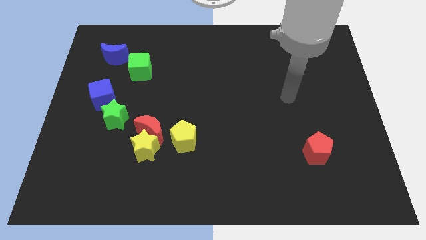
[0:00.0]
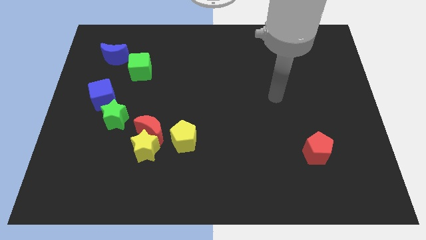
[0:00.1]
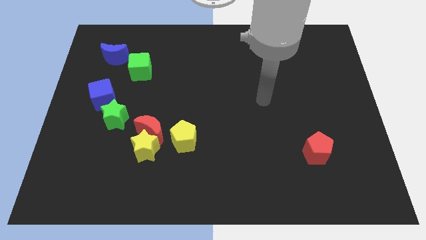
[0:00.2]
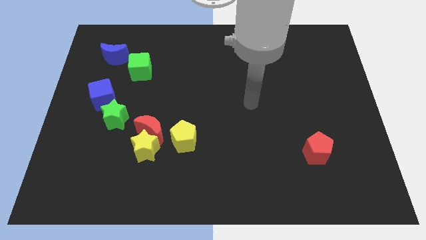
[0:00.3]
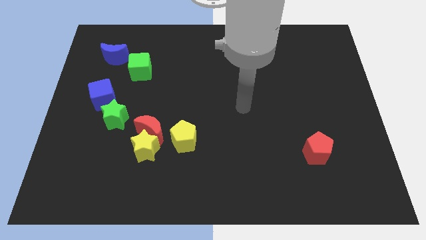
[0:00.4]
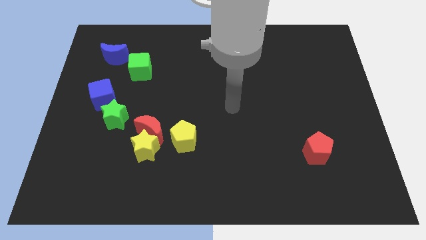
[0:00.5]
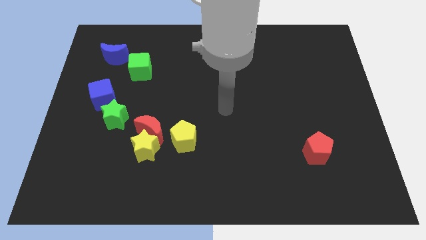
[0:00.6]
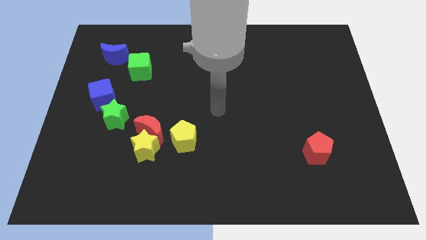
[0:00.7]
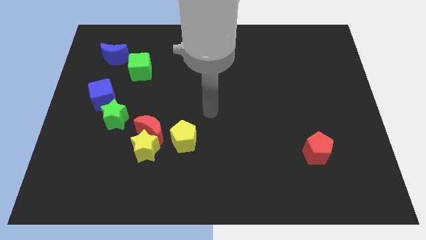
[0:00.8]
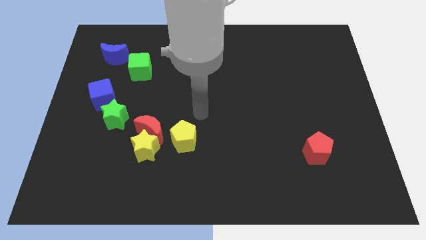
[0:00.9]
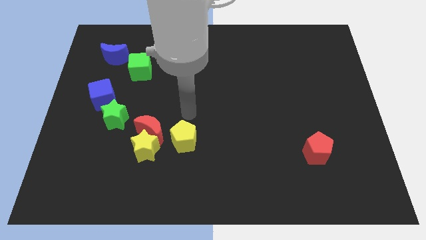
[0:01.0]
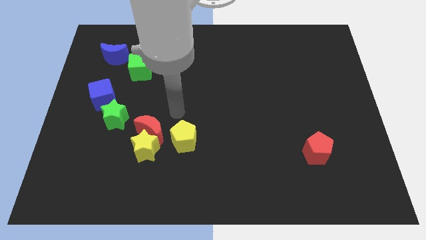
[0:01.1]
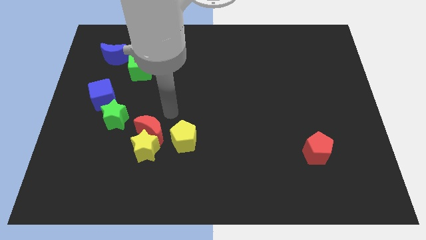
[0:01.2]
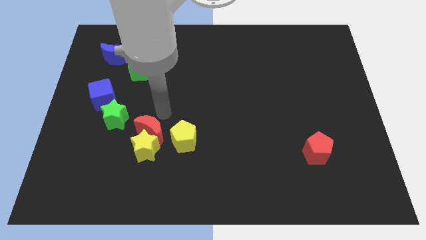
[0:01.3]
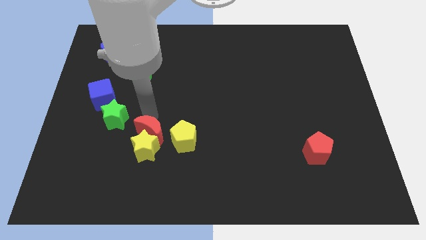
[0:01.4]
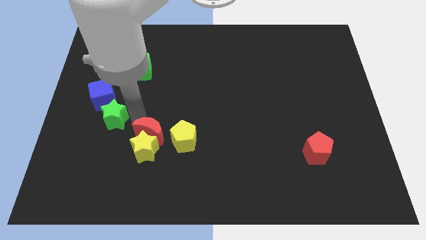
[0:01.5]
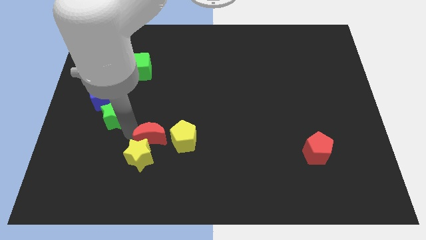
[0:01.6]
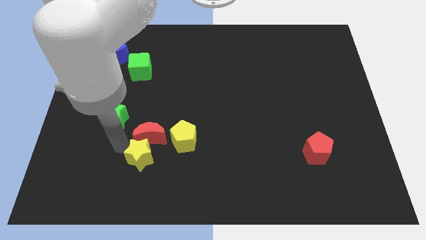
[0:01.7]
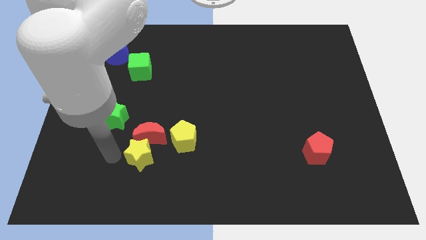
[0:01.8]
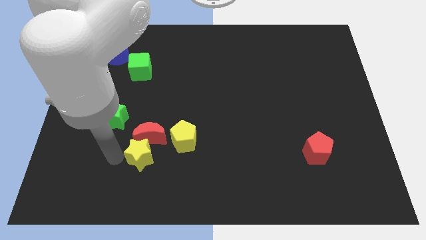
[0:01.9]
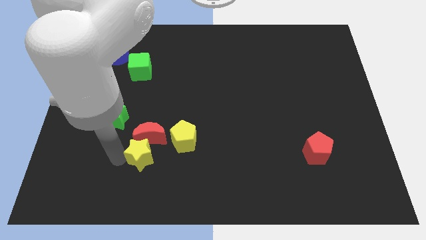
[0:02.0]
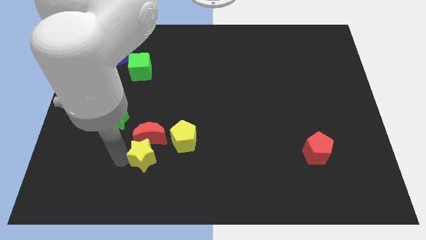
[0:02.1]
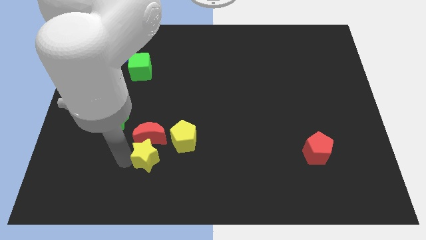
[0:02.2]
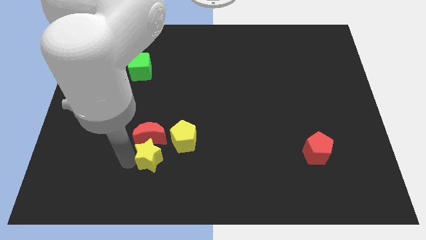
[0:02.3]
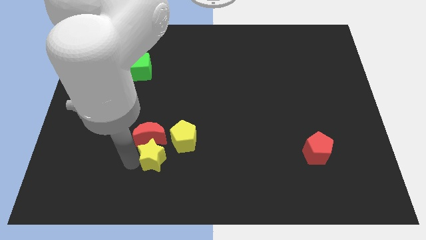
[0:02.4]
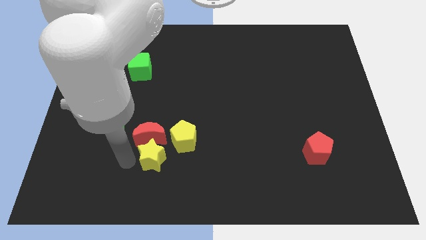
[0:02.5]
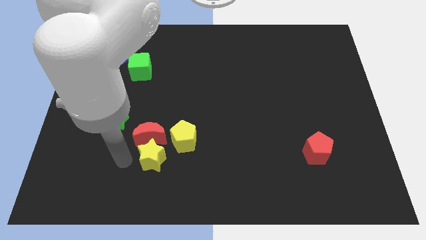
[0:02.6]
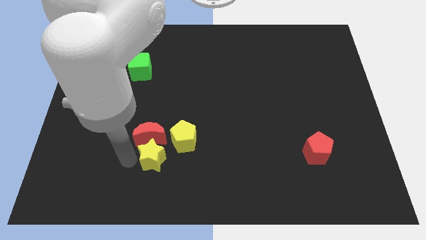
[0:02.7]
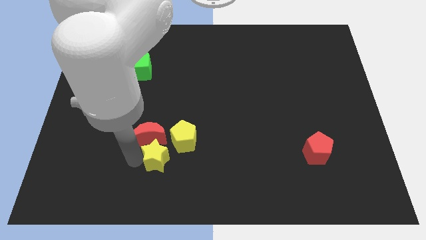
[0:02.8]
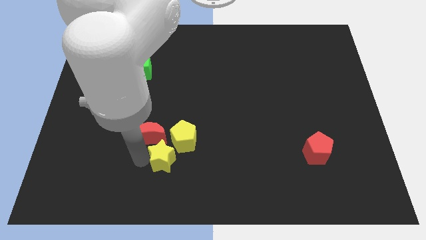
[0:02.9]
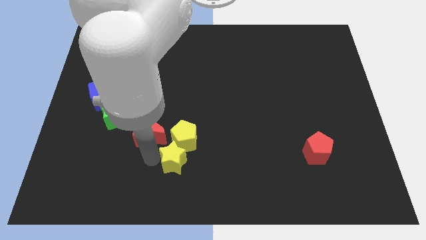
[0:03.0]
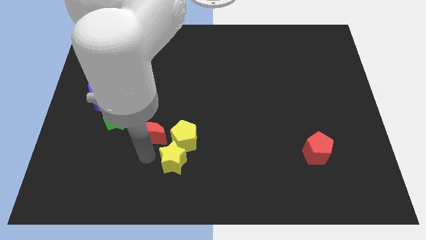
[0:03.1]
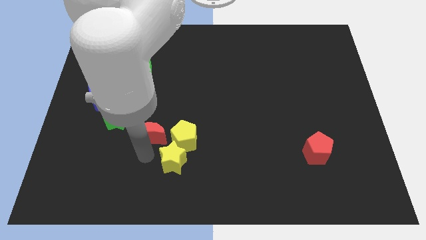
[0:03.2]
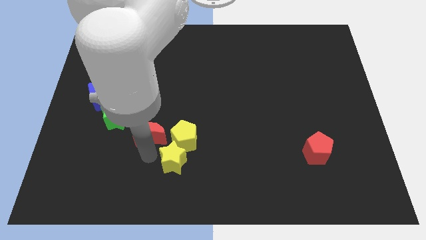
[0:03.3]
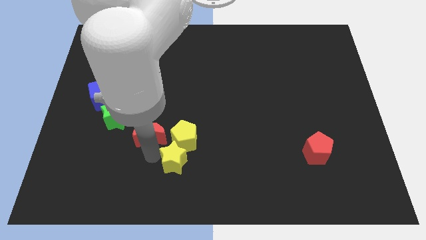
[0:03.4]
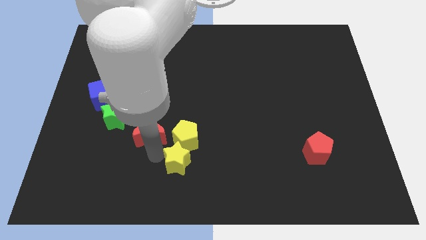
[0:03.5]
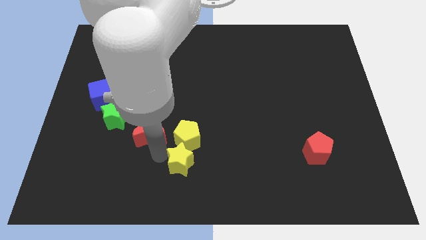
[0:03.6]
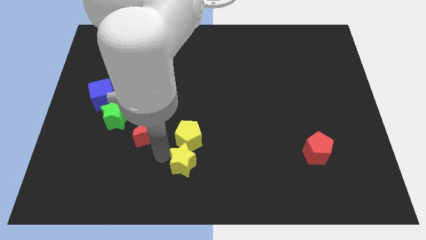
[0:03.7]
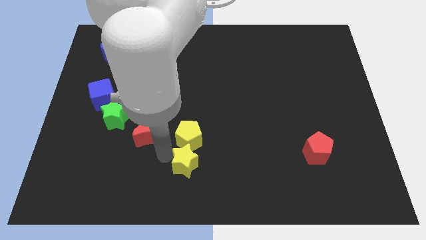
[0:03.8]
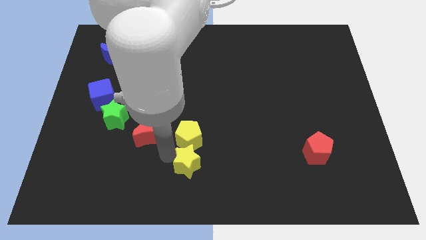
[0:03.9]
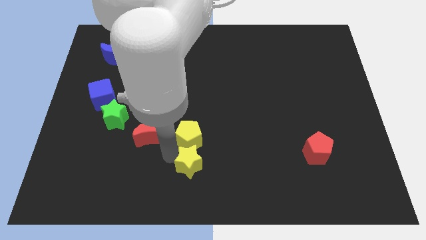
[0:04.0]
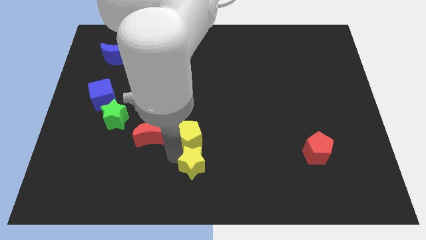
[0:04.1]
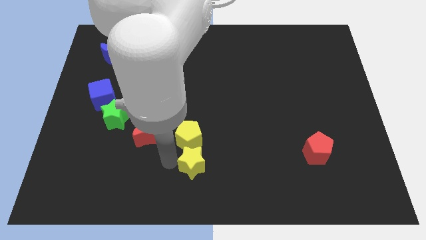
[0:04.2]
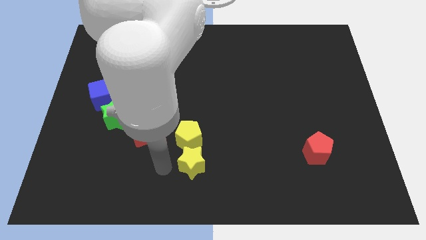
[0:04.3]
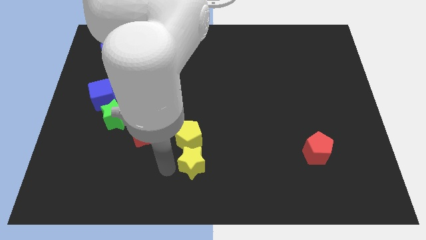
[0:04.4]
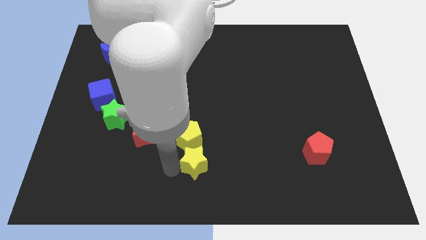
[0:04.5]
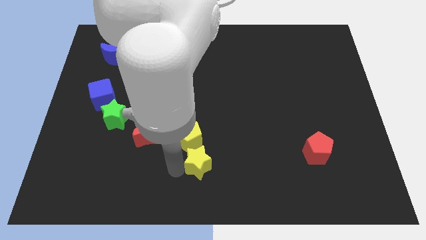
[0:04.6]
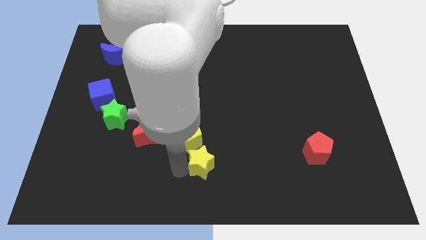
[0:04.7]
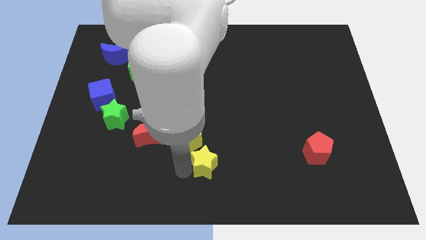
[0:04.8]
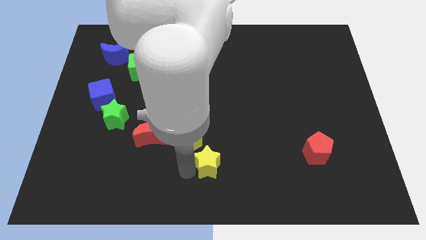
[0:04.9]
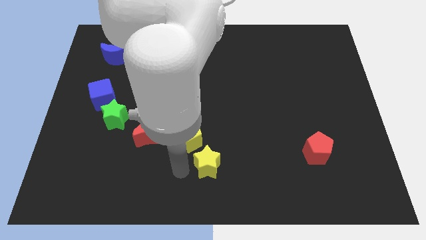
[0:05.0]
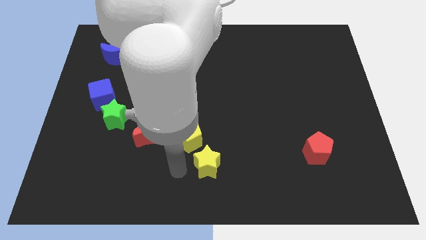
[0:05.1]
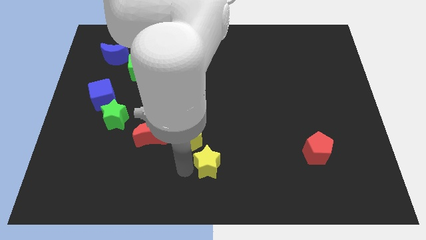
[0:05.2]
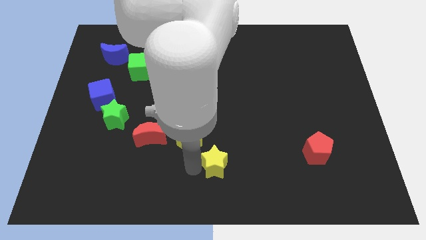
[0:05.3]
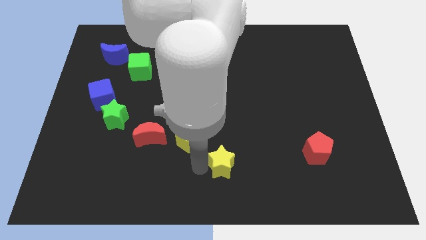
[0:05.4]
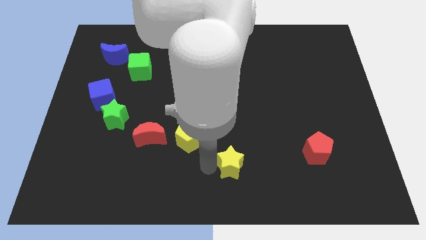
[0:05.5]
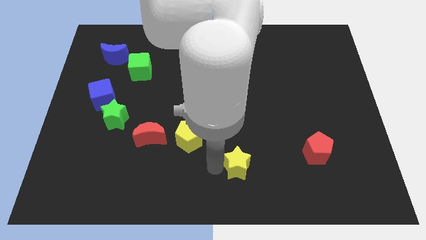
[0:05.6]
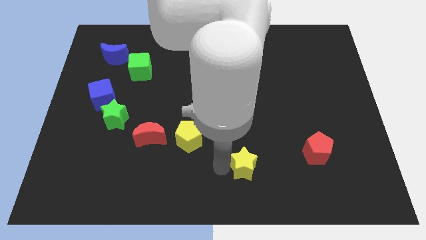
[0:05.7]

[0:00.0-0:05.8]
push the yellow star to the right

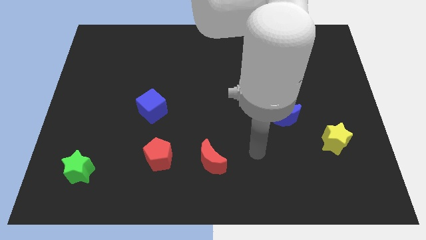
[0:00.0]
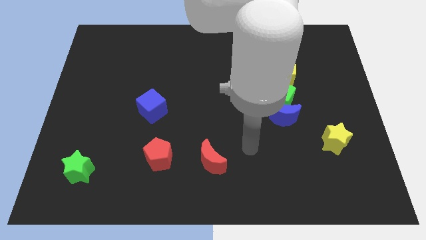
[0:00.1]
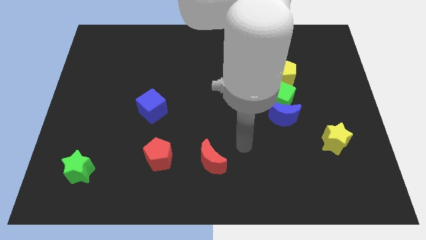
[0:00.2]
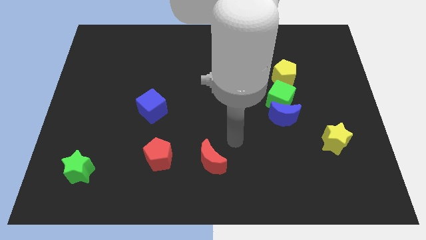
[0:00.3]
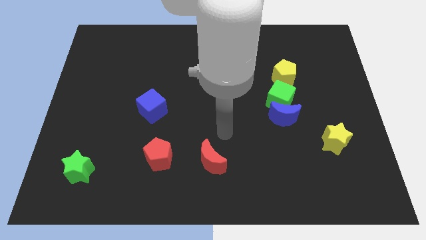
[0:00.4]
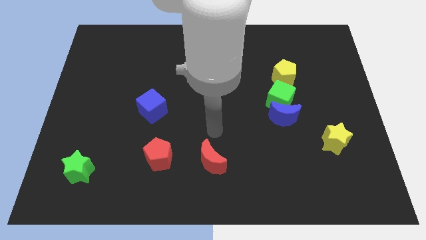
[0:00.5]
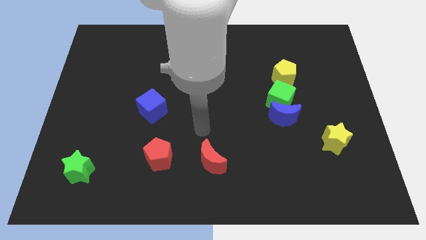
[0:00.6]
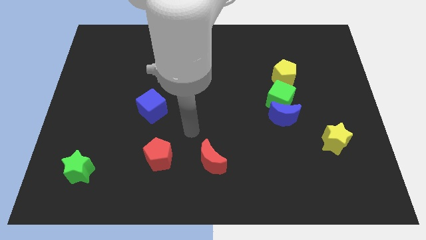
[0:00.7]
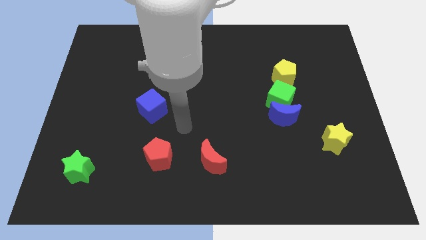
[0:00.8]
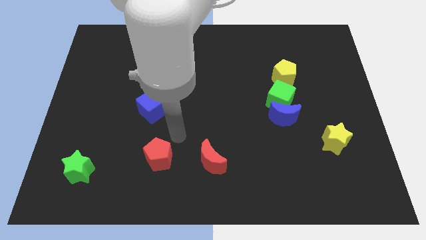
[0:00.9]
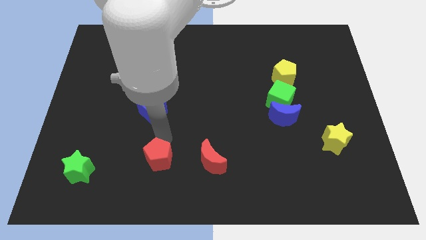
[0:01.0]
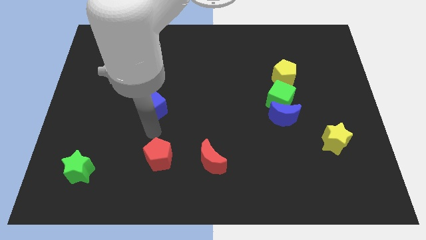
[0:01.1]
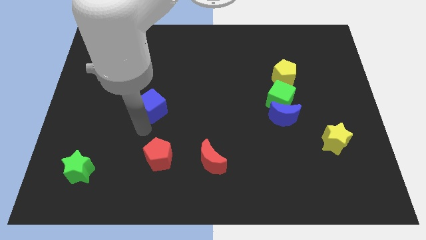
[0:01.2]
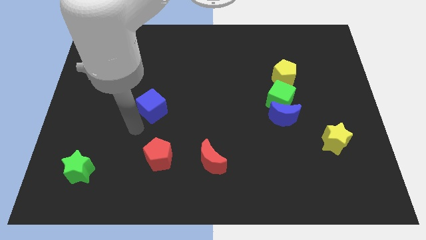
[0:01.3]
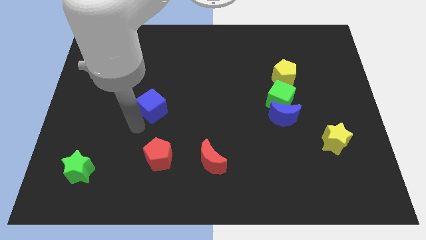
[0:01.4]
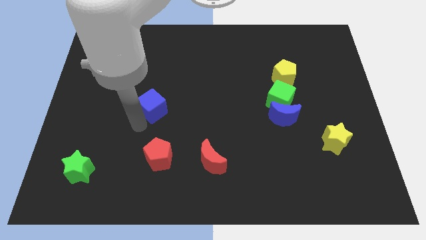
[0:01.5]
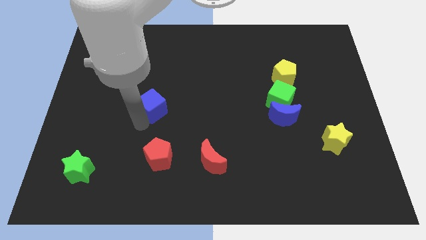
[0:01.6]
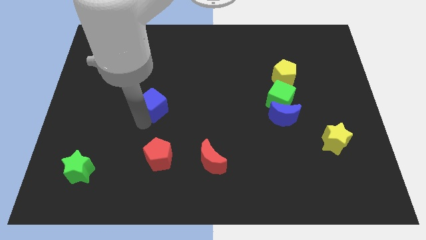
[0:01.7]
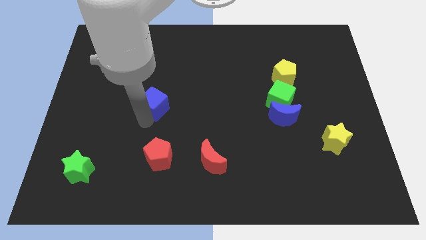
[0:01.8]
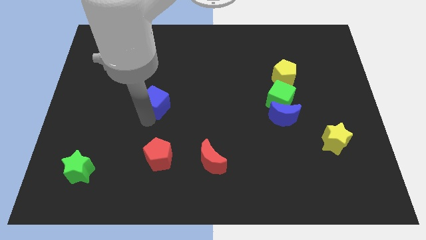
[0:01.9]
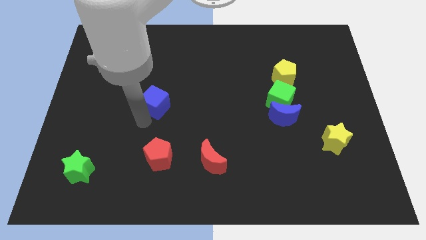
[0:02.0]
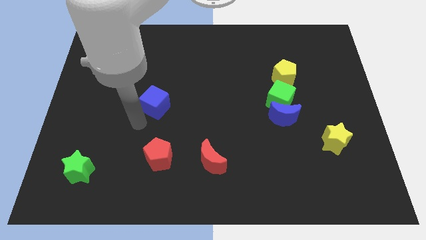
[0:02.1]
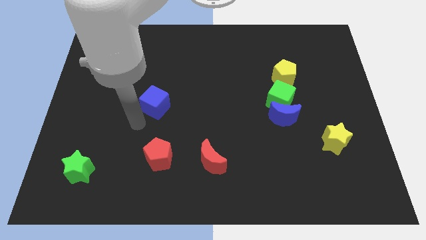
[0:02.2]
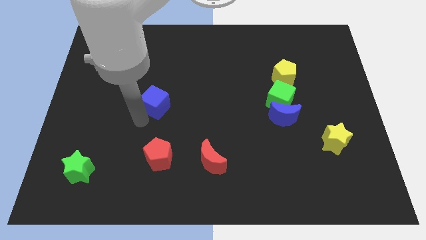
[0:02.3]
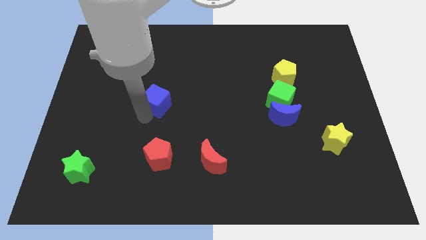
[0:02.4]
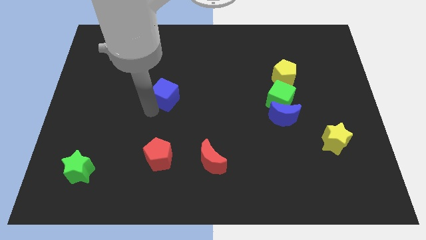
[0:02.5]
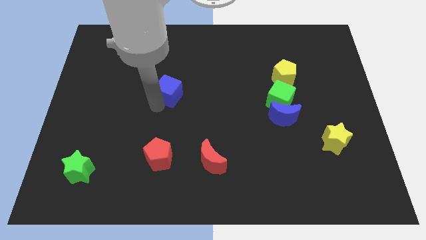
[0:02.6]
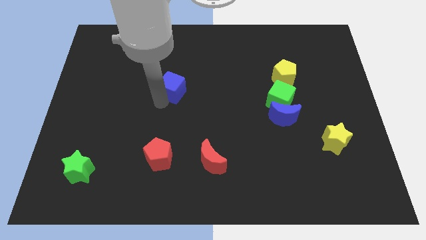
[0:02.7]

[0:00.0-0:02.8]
push the blue cube somewhat diagonally upwards and to the right
